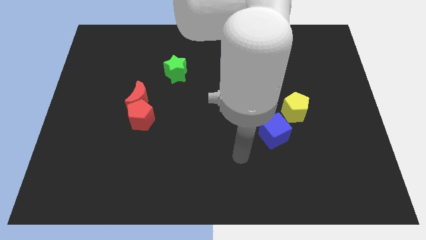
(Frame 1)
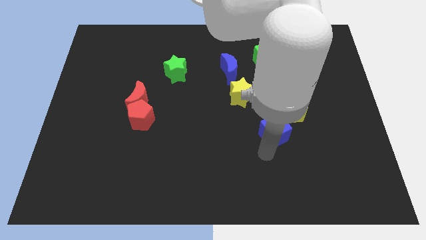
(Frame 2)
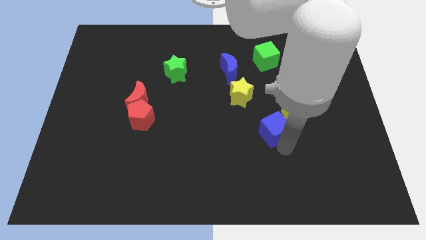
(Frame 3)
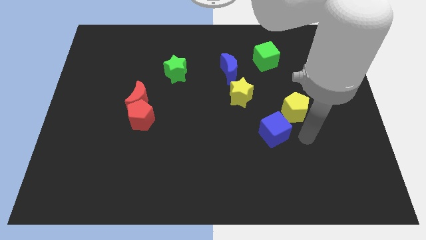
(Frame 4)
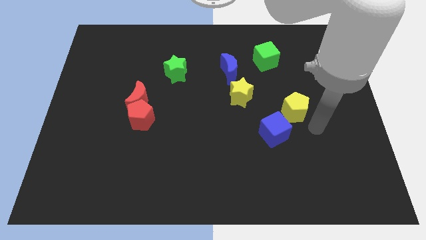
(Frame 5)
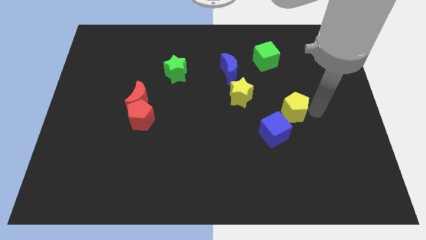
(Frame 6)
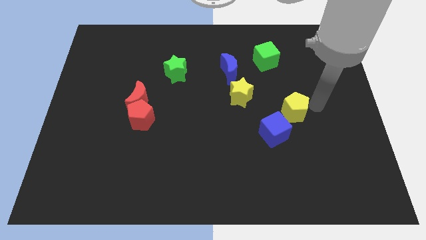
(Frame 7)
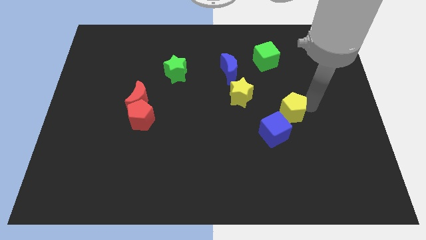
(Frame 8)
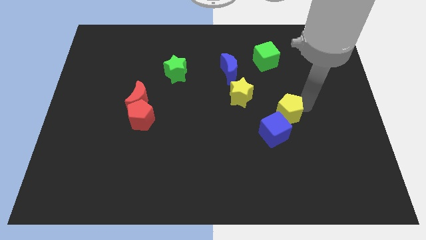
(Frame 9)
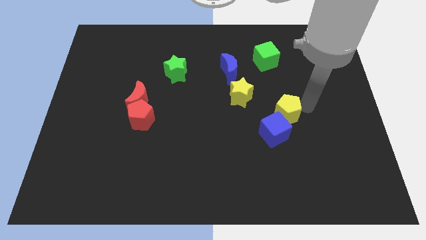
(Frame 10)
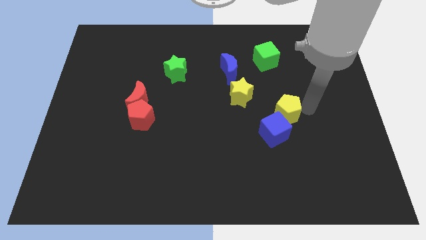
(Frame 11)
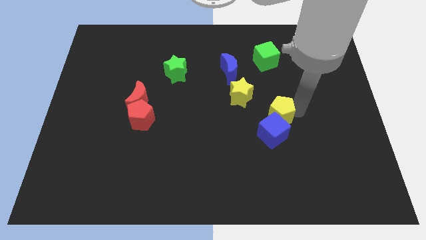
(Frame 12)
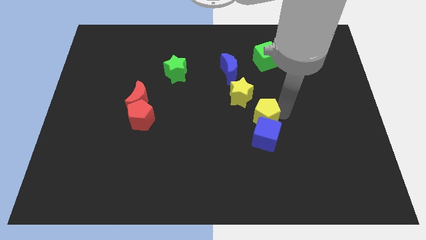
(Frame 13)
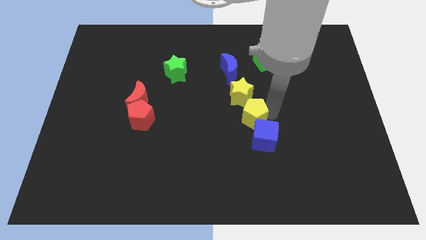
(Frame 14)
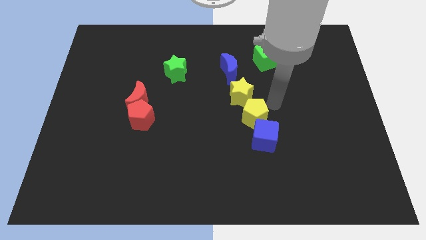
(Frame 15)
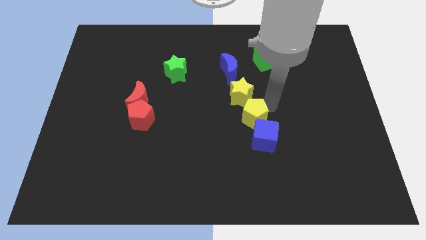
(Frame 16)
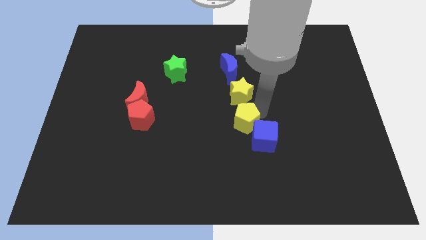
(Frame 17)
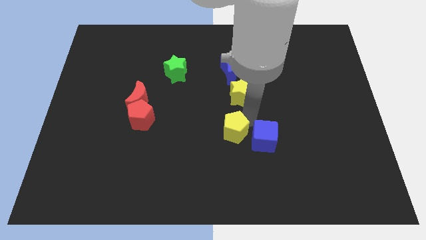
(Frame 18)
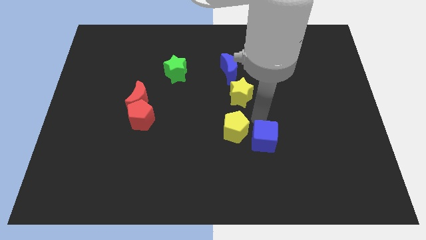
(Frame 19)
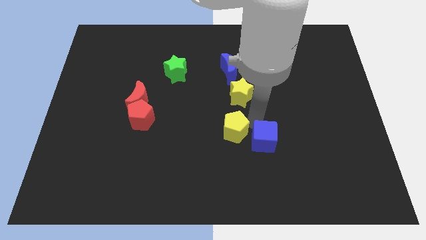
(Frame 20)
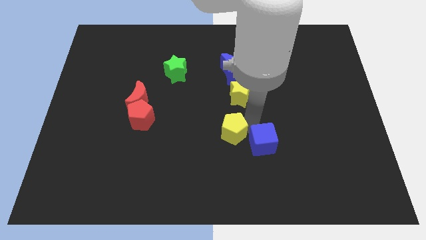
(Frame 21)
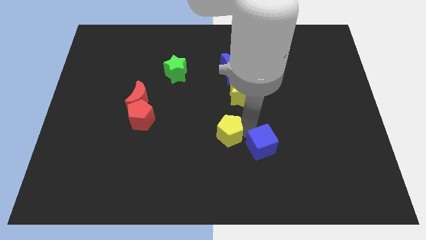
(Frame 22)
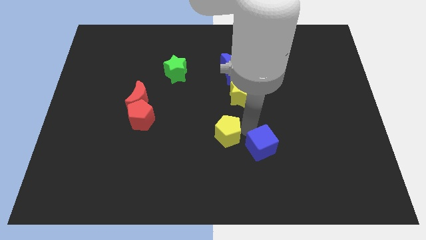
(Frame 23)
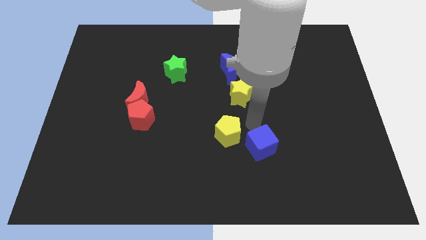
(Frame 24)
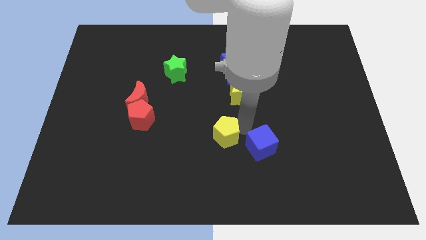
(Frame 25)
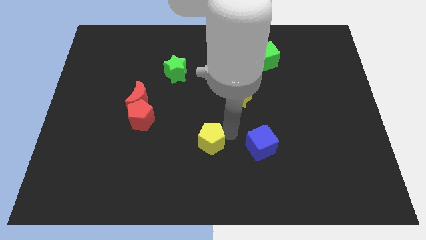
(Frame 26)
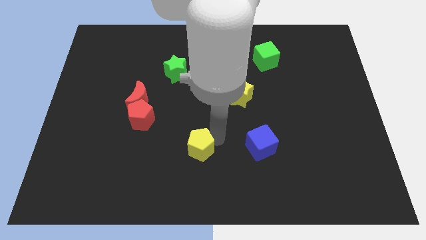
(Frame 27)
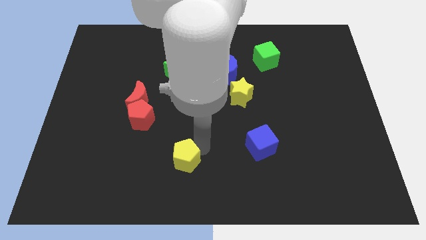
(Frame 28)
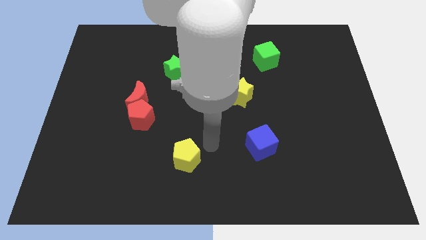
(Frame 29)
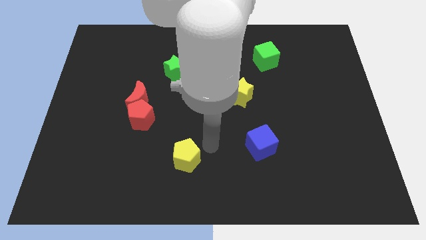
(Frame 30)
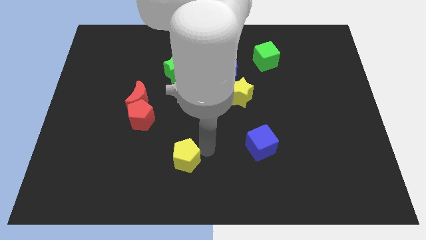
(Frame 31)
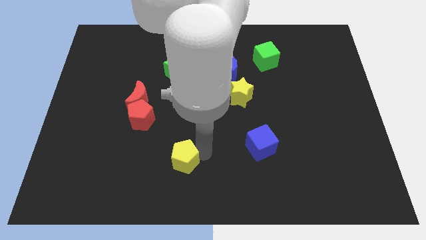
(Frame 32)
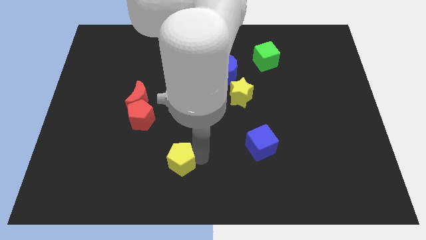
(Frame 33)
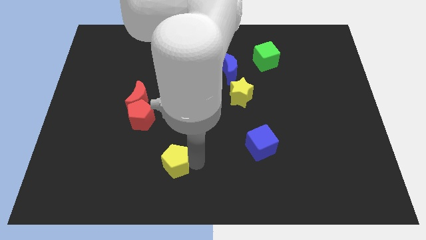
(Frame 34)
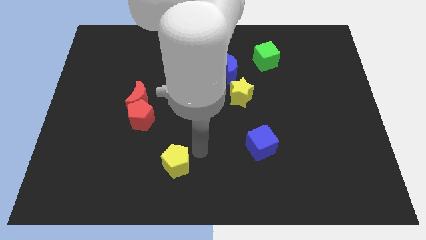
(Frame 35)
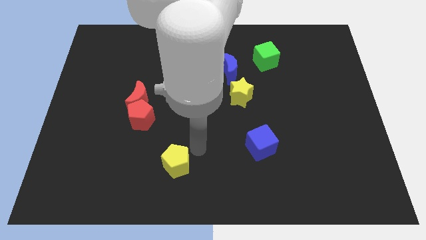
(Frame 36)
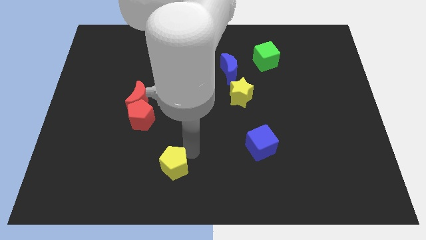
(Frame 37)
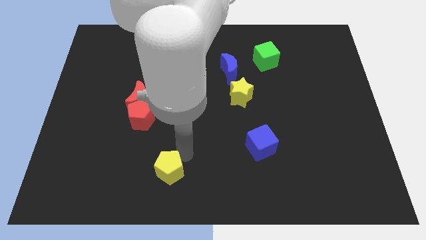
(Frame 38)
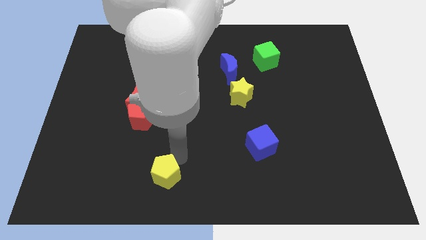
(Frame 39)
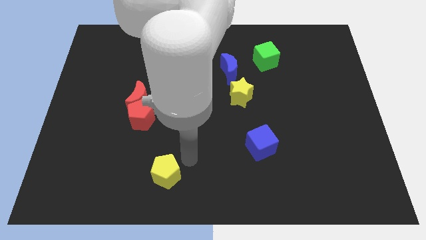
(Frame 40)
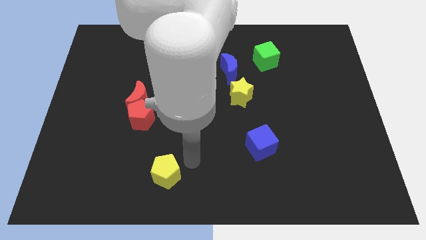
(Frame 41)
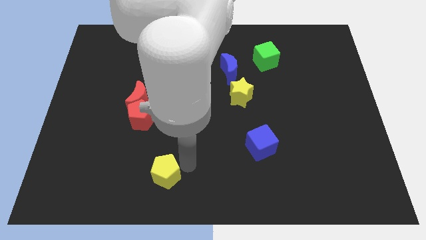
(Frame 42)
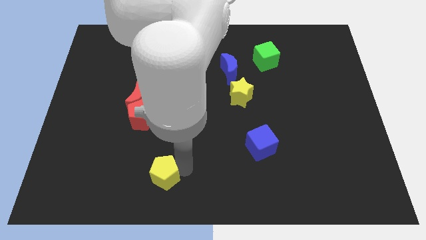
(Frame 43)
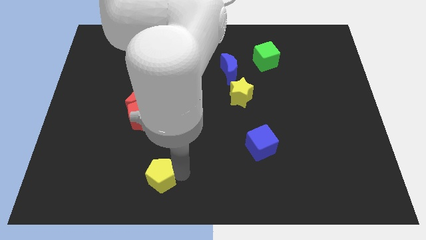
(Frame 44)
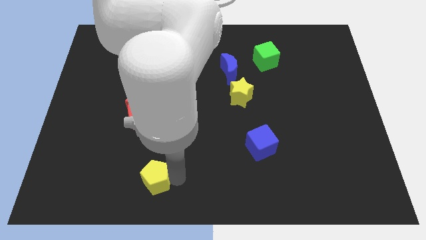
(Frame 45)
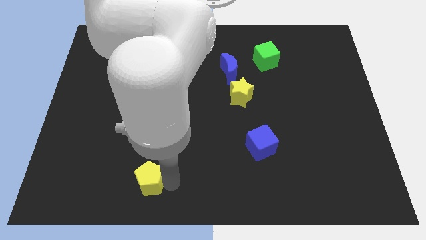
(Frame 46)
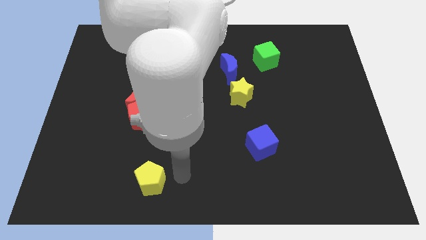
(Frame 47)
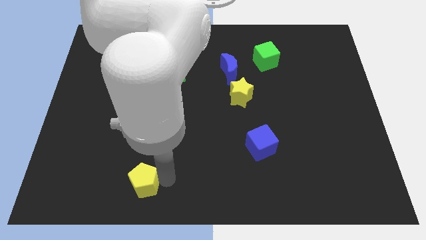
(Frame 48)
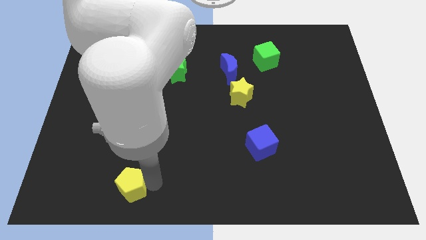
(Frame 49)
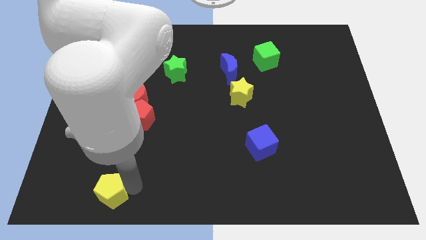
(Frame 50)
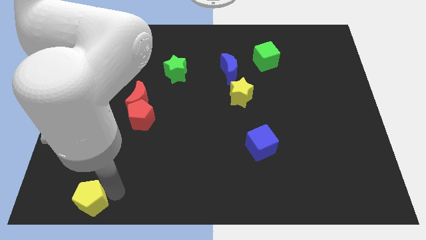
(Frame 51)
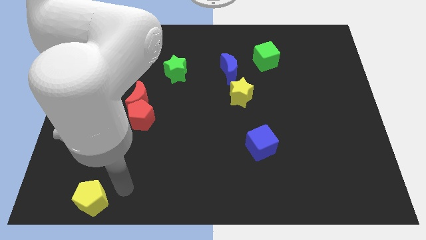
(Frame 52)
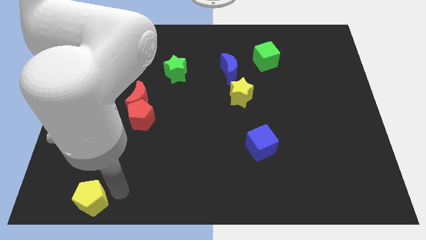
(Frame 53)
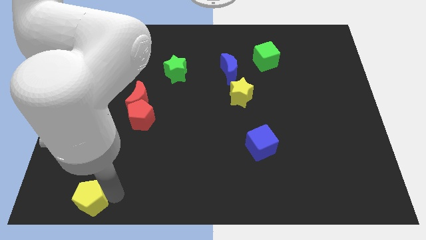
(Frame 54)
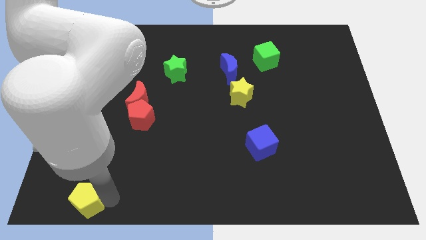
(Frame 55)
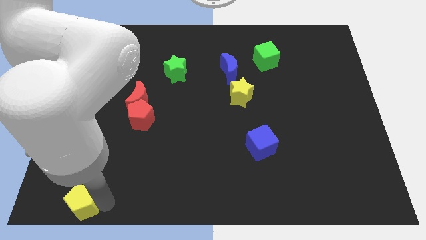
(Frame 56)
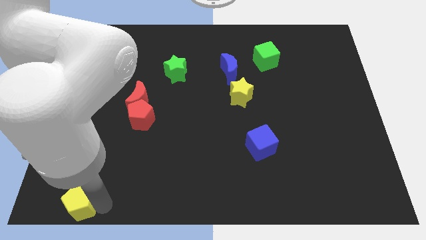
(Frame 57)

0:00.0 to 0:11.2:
push the yellow pentagon to the bottom left of the board
